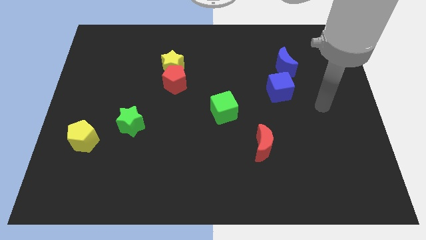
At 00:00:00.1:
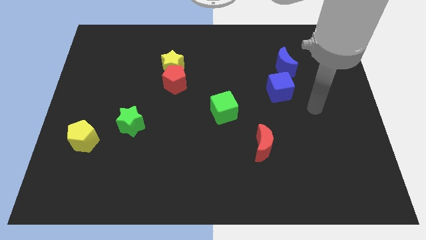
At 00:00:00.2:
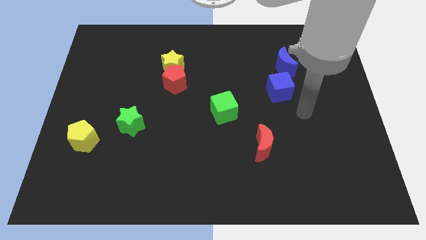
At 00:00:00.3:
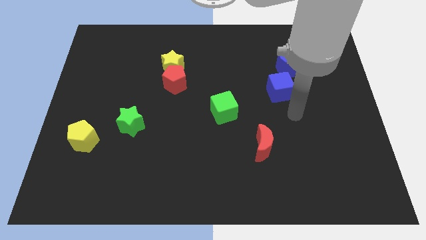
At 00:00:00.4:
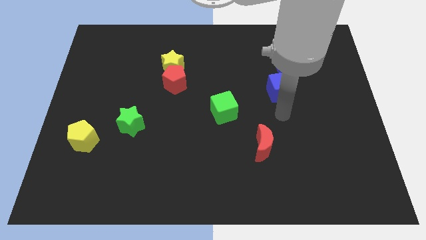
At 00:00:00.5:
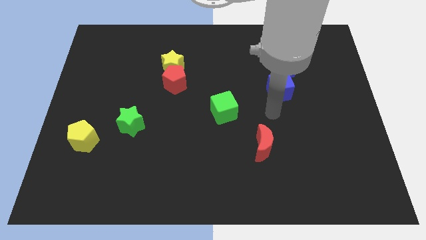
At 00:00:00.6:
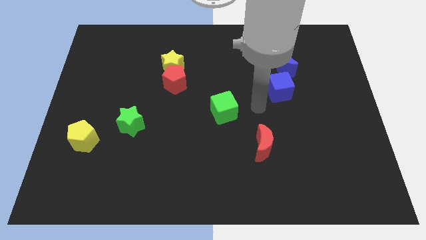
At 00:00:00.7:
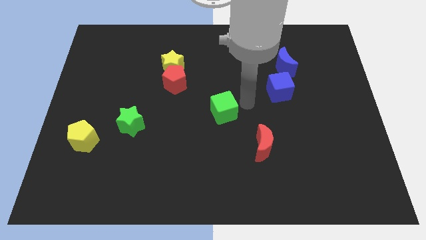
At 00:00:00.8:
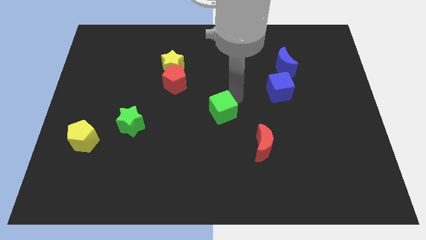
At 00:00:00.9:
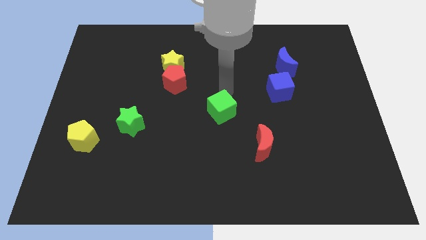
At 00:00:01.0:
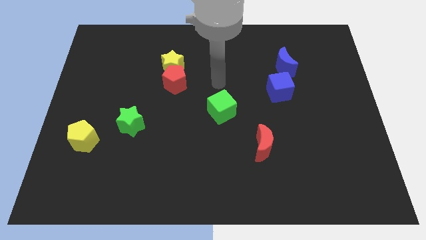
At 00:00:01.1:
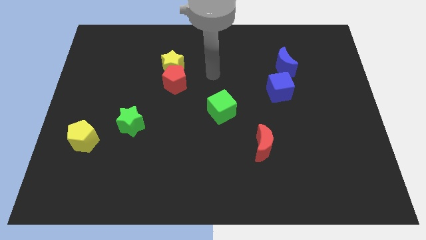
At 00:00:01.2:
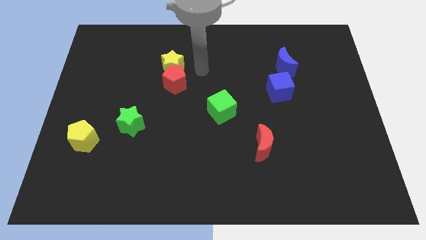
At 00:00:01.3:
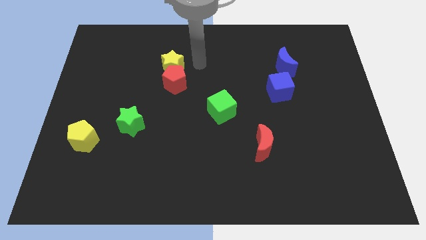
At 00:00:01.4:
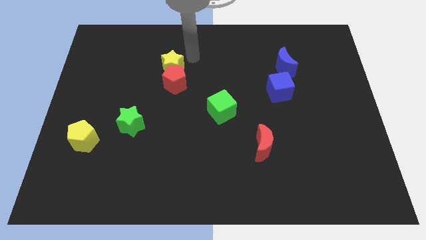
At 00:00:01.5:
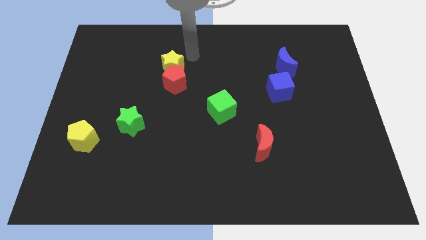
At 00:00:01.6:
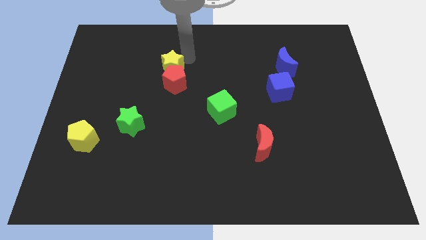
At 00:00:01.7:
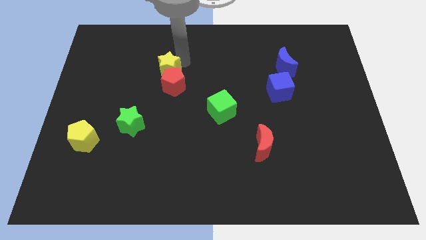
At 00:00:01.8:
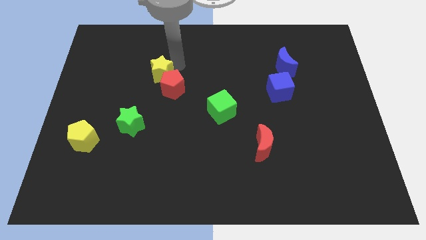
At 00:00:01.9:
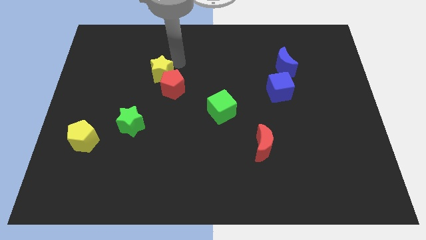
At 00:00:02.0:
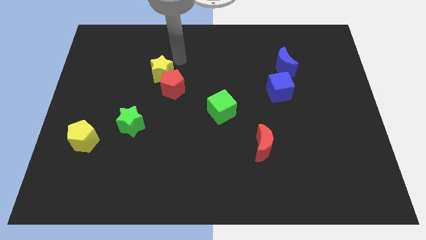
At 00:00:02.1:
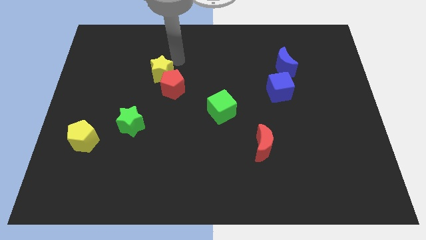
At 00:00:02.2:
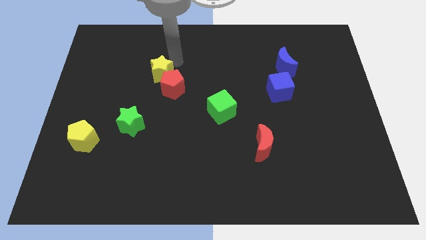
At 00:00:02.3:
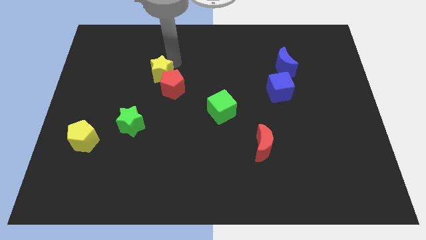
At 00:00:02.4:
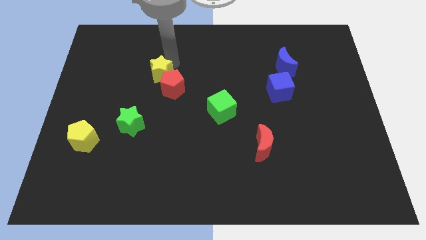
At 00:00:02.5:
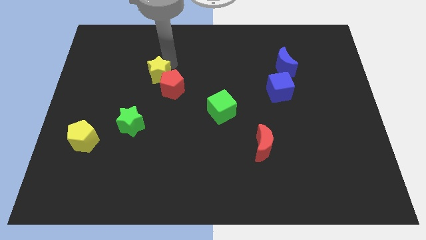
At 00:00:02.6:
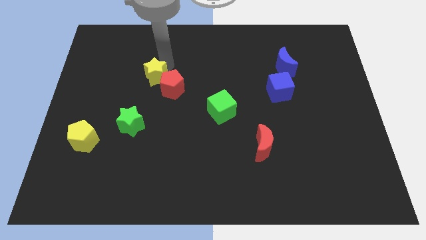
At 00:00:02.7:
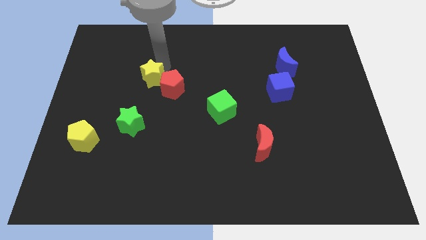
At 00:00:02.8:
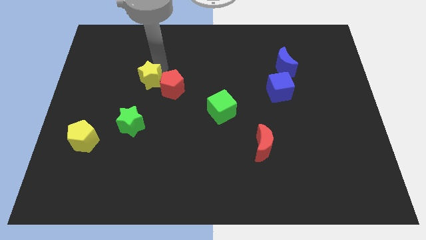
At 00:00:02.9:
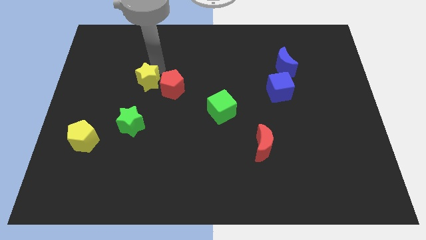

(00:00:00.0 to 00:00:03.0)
move the yellow star downwards and to the left diagonally a bit

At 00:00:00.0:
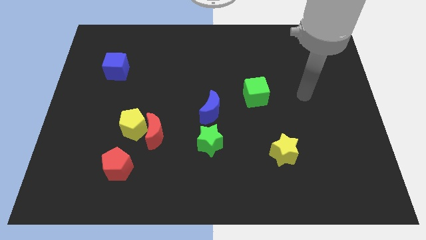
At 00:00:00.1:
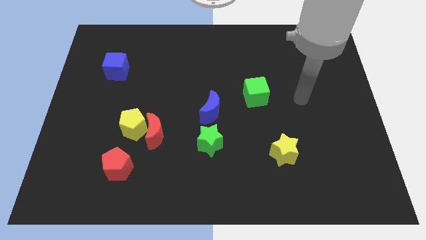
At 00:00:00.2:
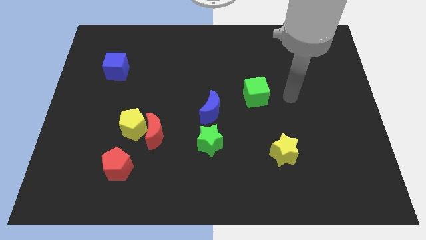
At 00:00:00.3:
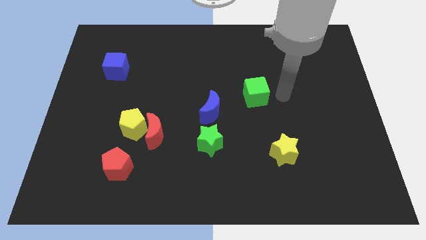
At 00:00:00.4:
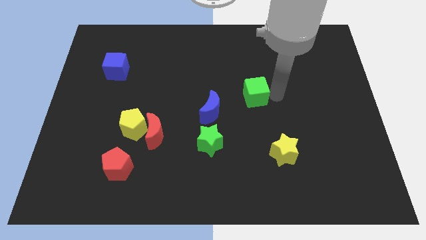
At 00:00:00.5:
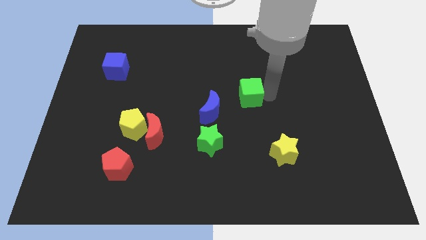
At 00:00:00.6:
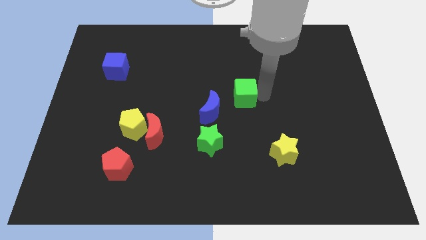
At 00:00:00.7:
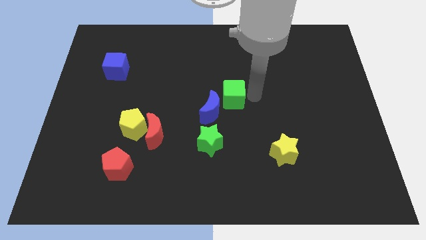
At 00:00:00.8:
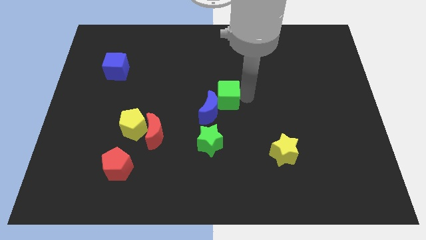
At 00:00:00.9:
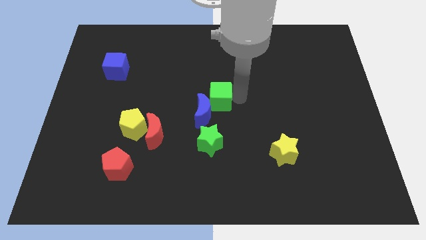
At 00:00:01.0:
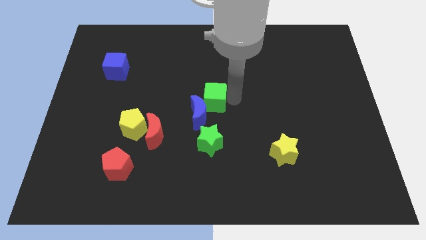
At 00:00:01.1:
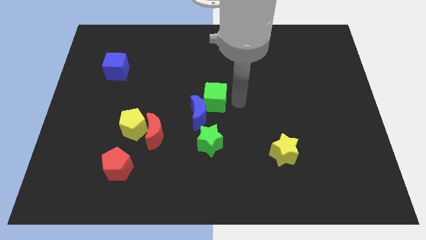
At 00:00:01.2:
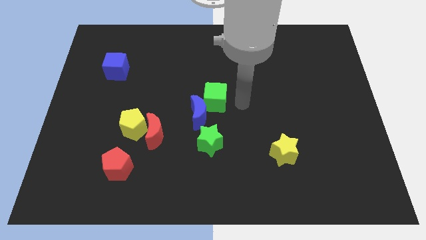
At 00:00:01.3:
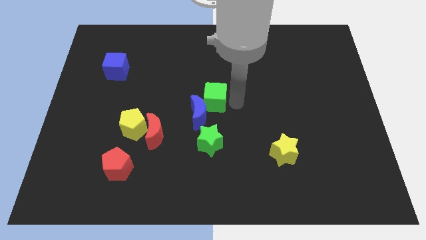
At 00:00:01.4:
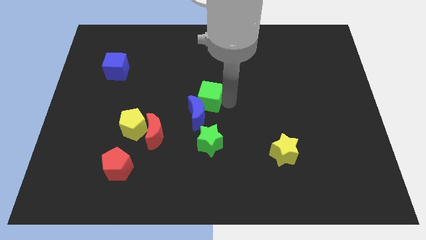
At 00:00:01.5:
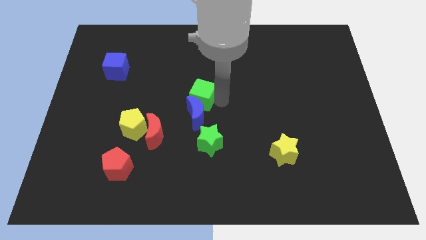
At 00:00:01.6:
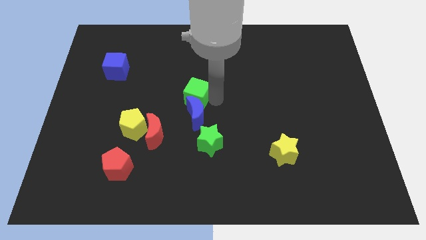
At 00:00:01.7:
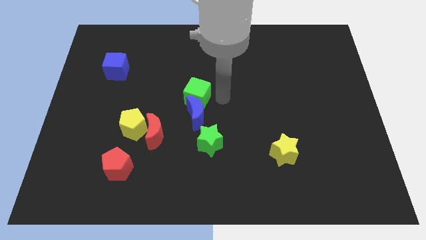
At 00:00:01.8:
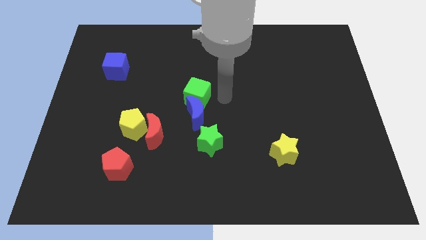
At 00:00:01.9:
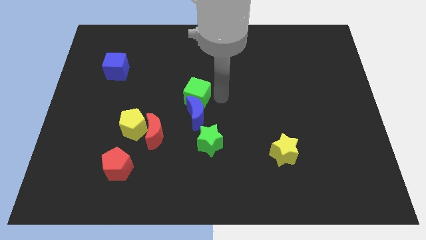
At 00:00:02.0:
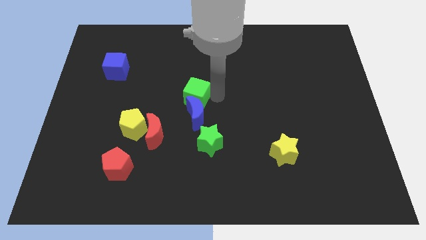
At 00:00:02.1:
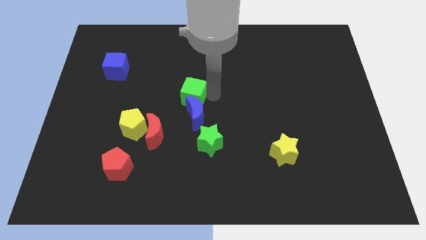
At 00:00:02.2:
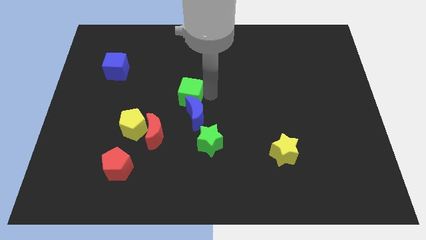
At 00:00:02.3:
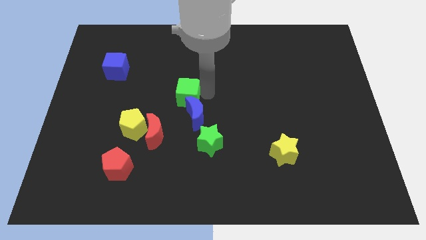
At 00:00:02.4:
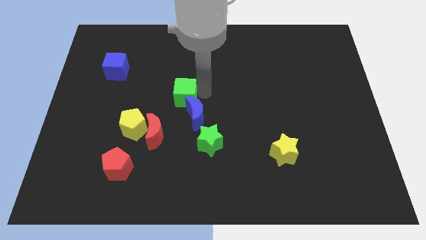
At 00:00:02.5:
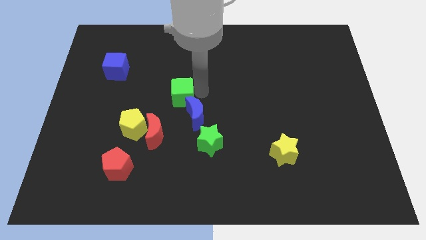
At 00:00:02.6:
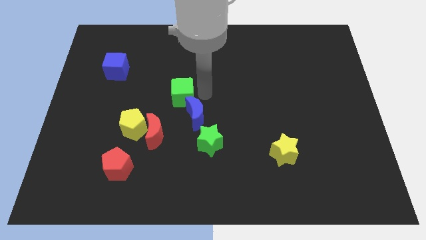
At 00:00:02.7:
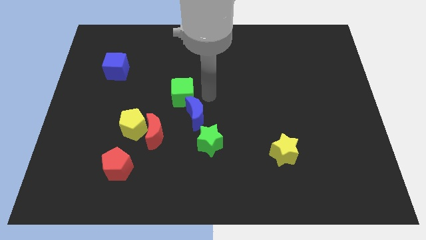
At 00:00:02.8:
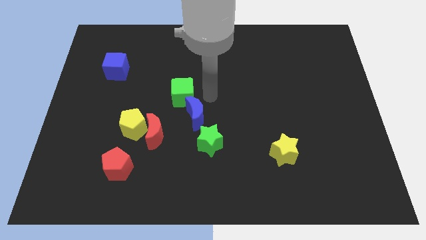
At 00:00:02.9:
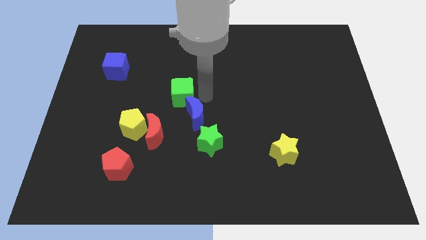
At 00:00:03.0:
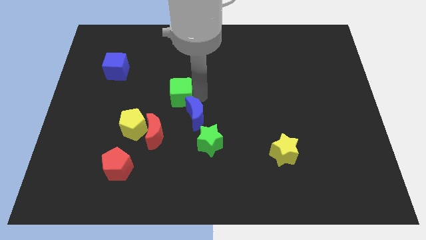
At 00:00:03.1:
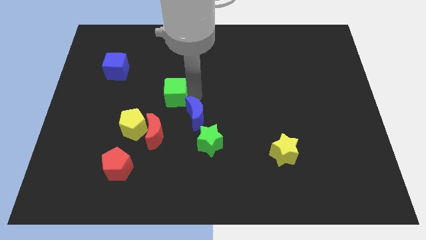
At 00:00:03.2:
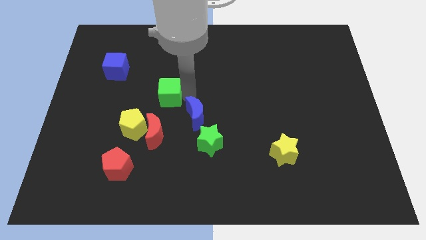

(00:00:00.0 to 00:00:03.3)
move the green cube left

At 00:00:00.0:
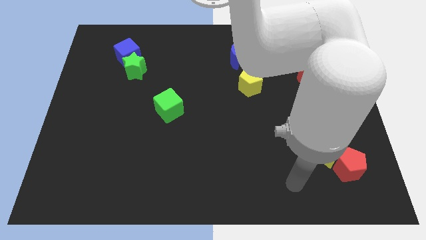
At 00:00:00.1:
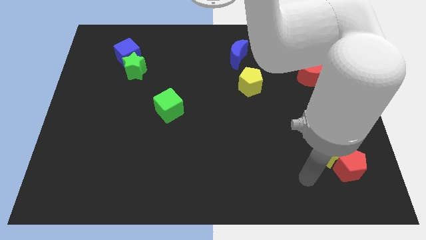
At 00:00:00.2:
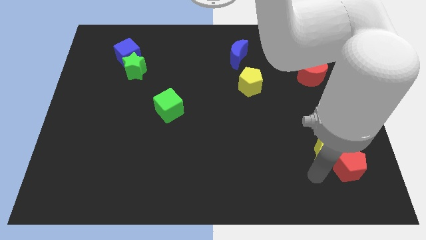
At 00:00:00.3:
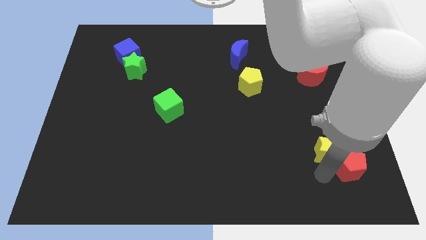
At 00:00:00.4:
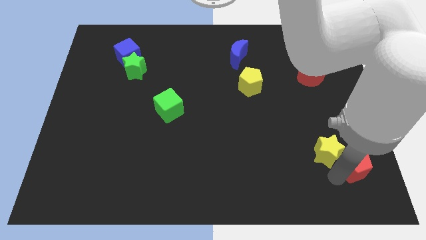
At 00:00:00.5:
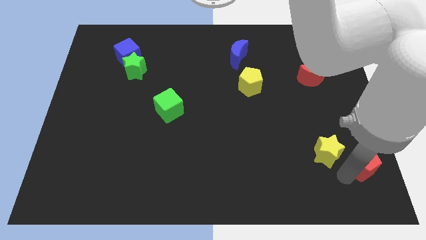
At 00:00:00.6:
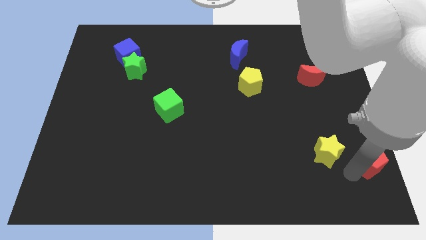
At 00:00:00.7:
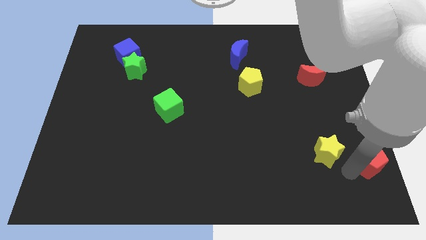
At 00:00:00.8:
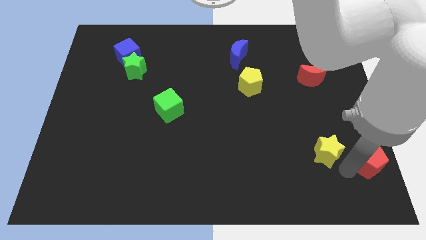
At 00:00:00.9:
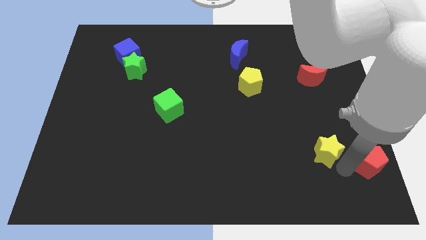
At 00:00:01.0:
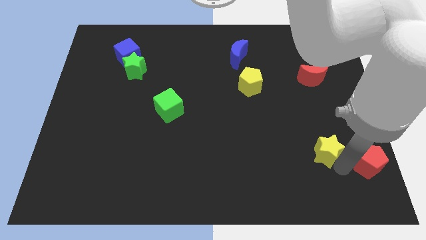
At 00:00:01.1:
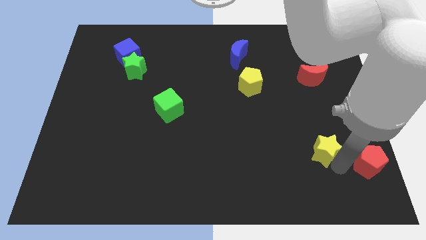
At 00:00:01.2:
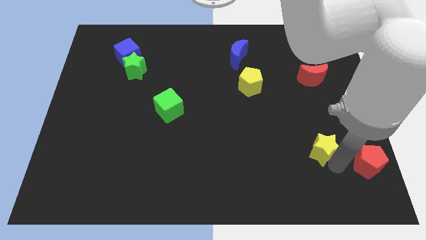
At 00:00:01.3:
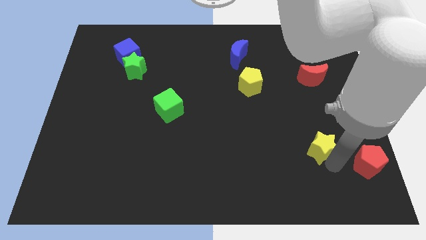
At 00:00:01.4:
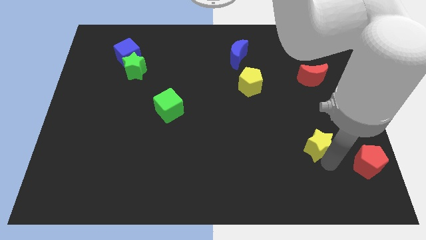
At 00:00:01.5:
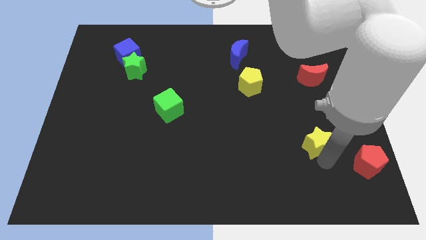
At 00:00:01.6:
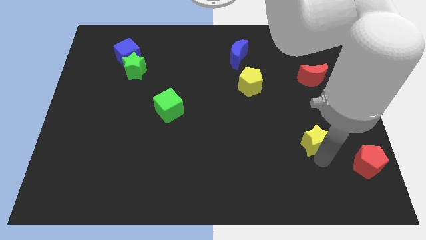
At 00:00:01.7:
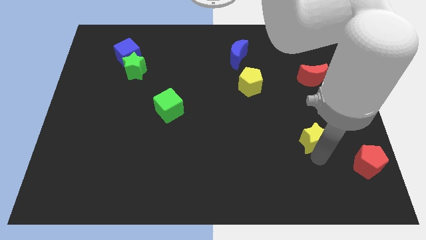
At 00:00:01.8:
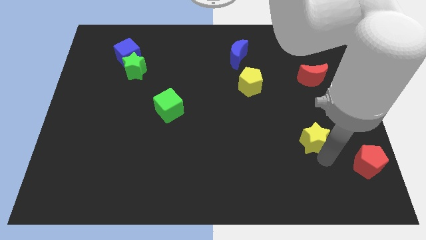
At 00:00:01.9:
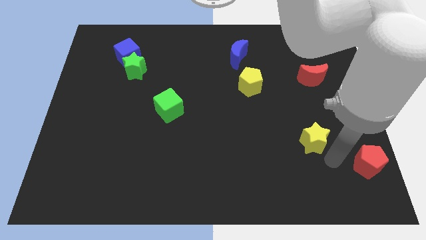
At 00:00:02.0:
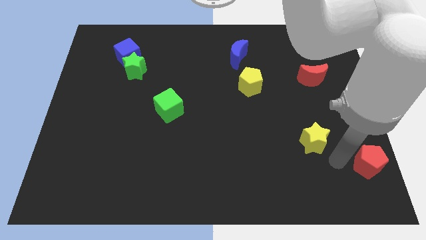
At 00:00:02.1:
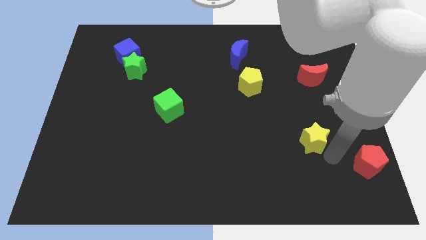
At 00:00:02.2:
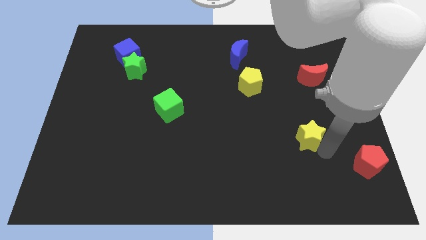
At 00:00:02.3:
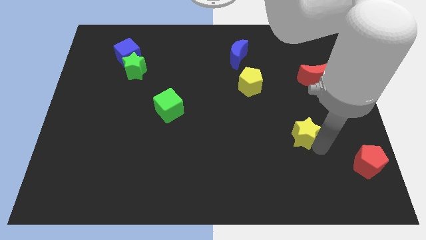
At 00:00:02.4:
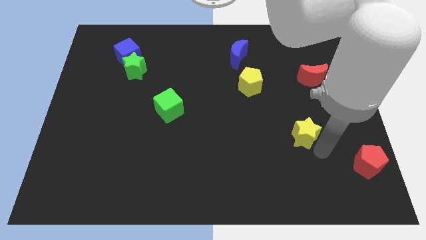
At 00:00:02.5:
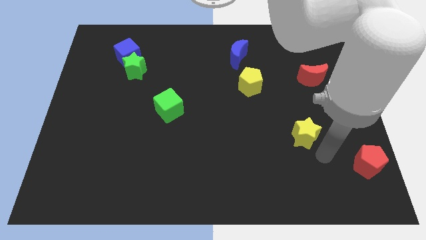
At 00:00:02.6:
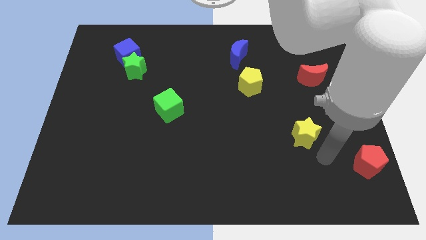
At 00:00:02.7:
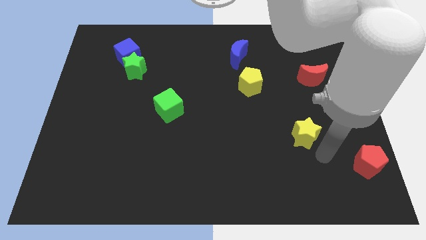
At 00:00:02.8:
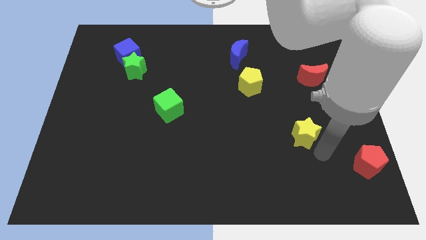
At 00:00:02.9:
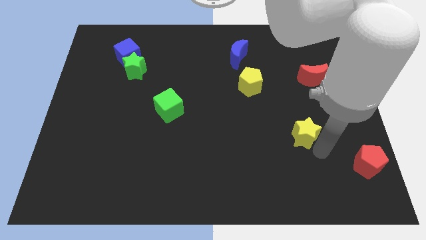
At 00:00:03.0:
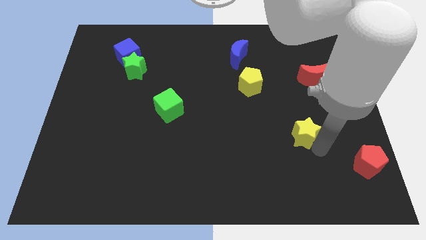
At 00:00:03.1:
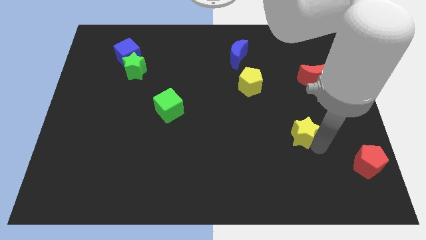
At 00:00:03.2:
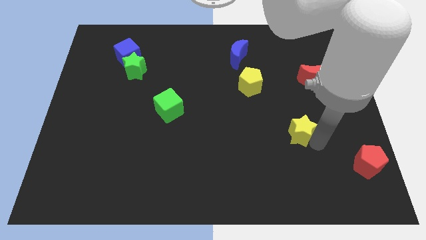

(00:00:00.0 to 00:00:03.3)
slide the yellow star diagonally up and left a little bit
